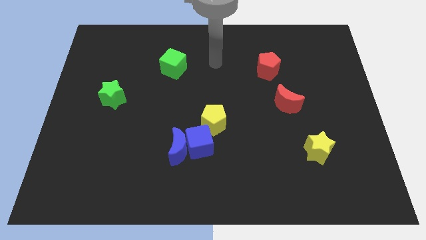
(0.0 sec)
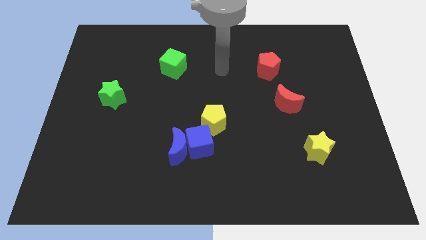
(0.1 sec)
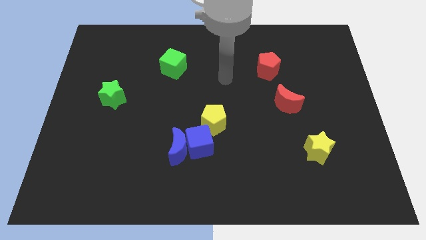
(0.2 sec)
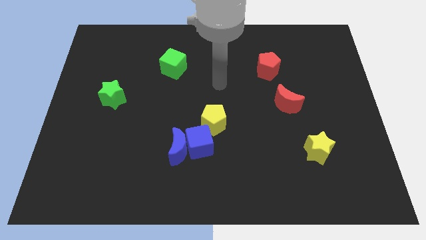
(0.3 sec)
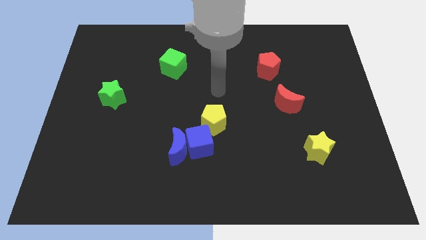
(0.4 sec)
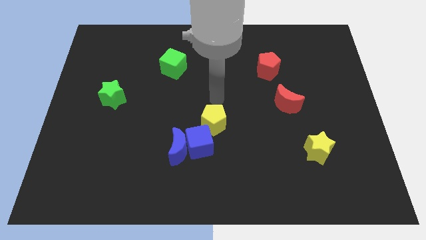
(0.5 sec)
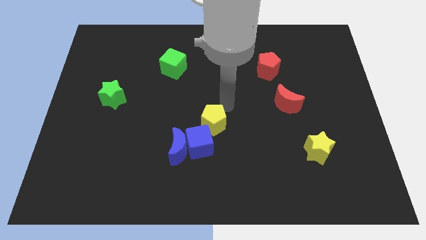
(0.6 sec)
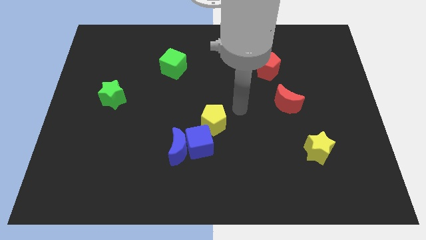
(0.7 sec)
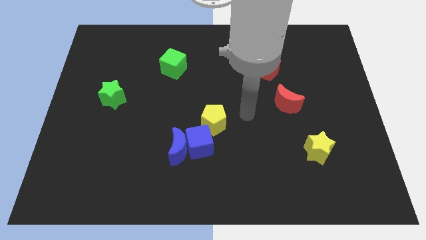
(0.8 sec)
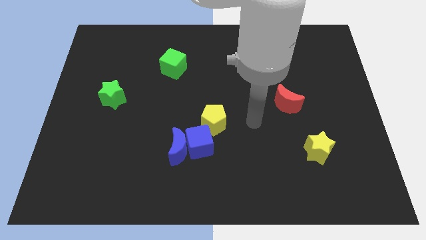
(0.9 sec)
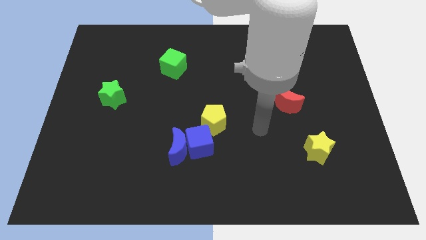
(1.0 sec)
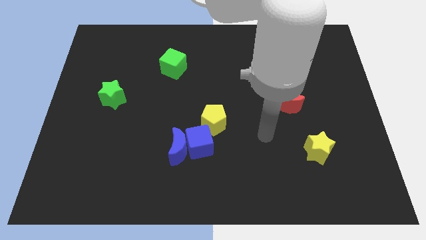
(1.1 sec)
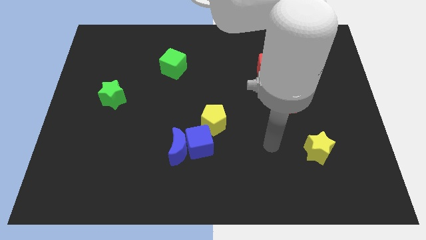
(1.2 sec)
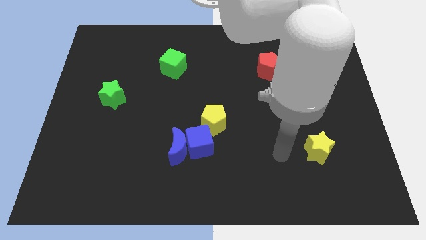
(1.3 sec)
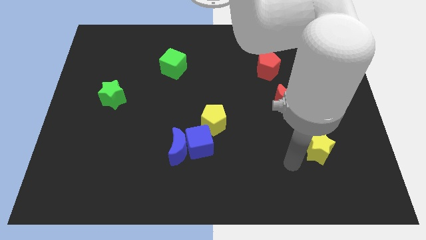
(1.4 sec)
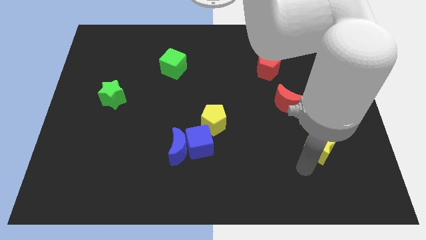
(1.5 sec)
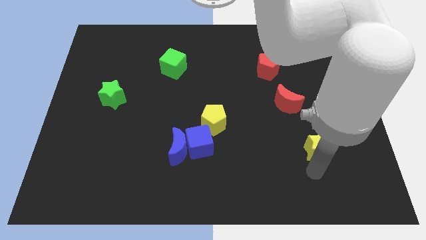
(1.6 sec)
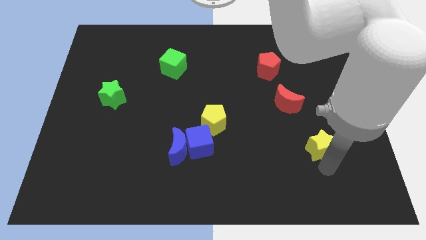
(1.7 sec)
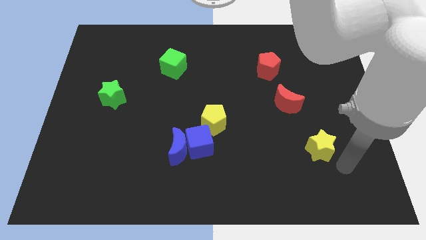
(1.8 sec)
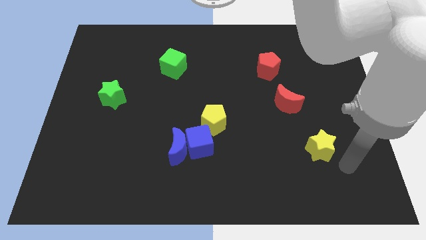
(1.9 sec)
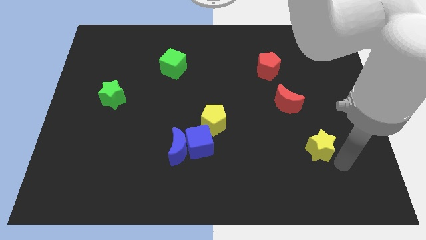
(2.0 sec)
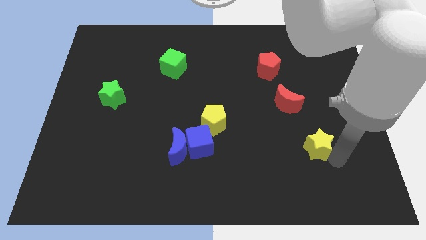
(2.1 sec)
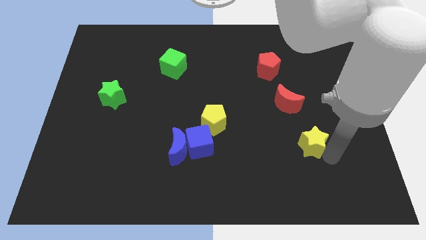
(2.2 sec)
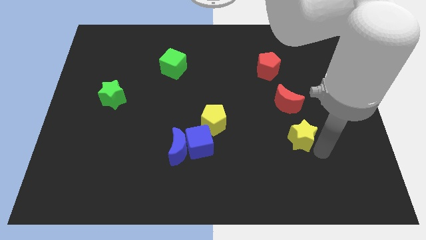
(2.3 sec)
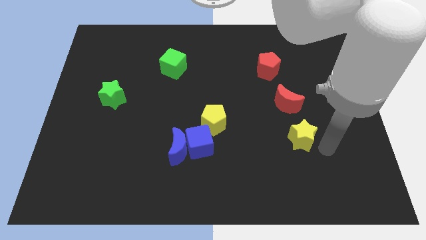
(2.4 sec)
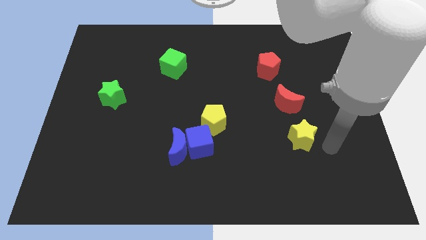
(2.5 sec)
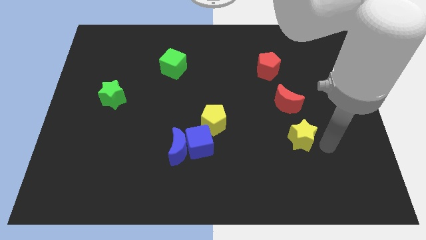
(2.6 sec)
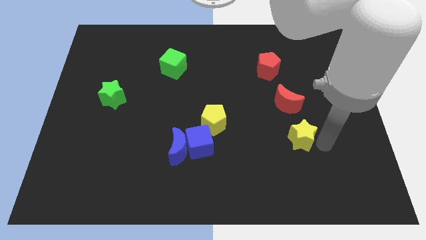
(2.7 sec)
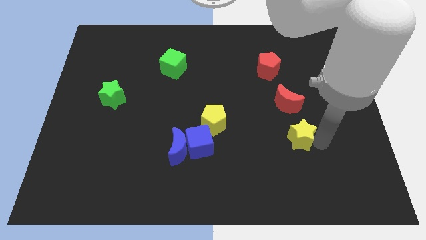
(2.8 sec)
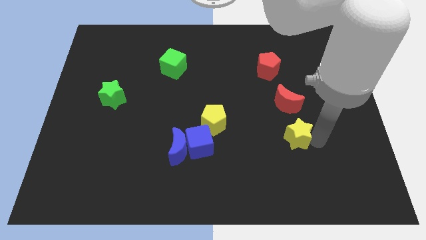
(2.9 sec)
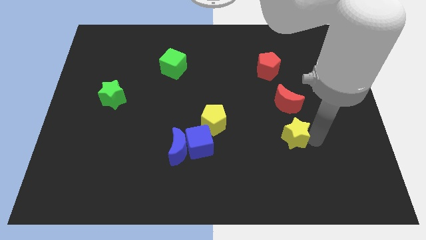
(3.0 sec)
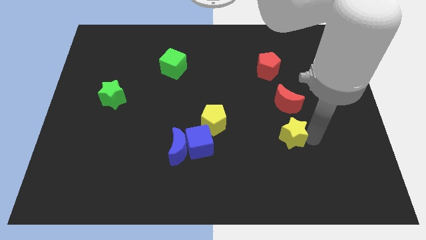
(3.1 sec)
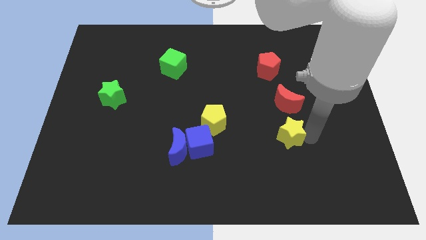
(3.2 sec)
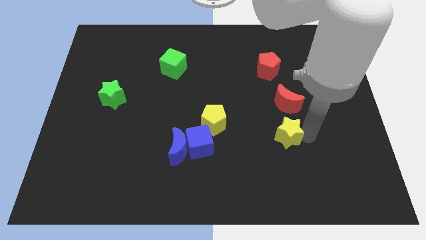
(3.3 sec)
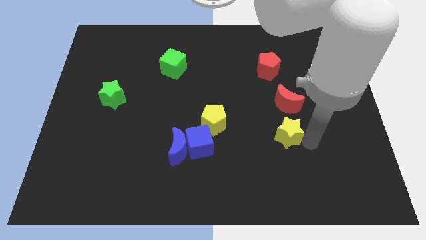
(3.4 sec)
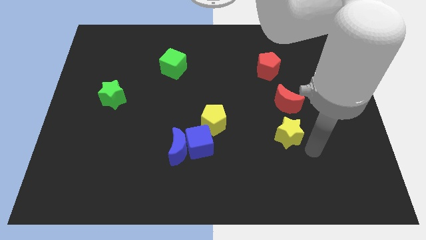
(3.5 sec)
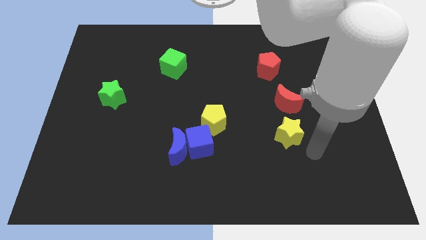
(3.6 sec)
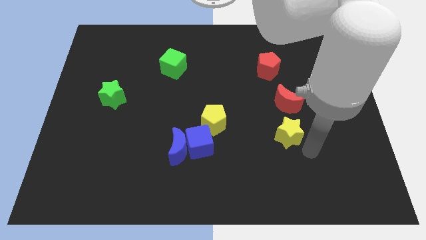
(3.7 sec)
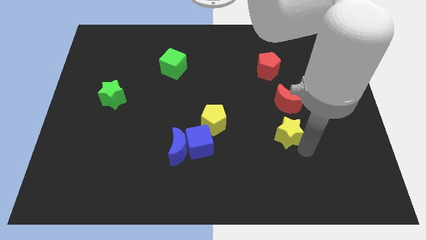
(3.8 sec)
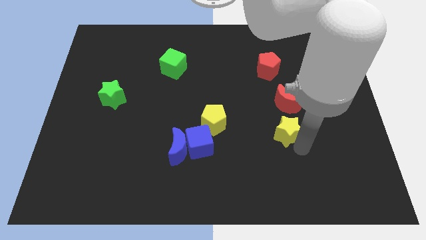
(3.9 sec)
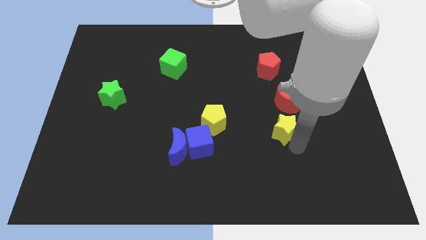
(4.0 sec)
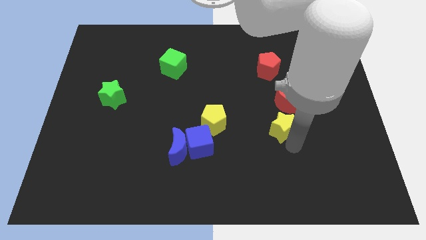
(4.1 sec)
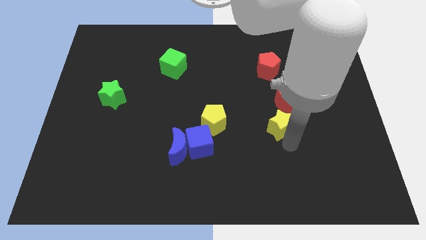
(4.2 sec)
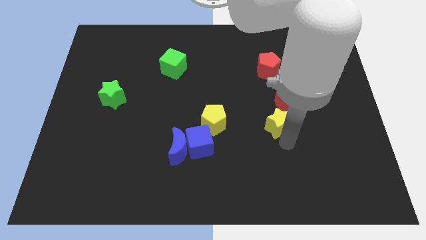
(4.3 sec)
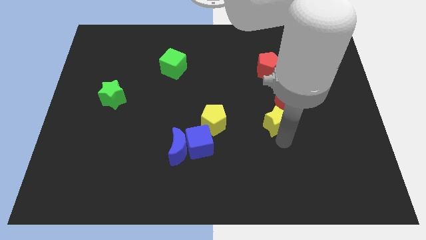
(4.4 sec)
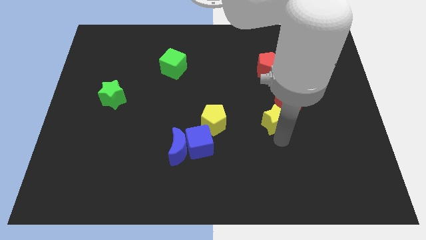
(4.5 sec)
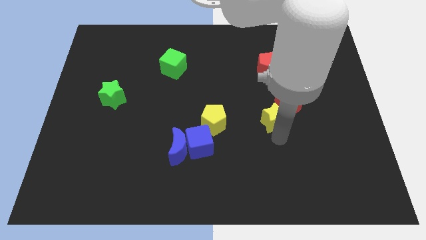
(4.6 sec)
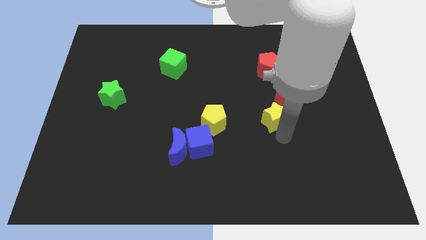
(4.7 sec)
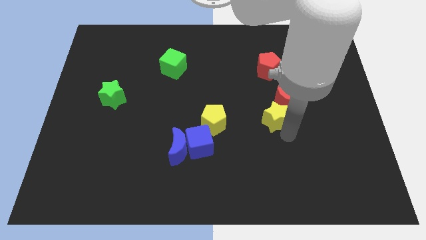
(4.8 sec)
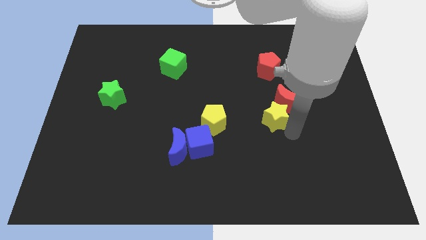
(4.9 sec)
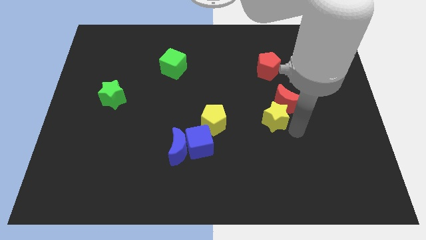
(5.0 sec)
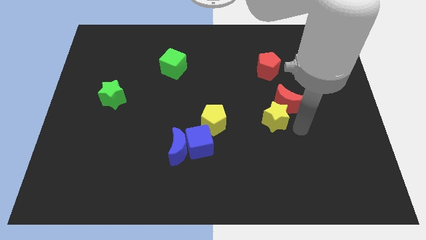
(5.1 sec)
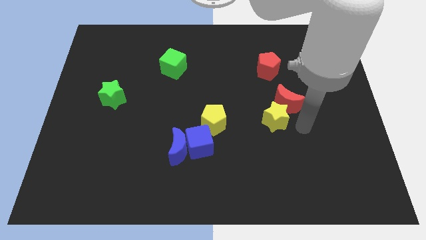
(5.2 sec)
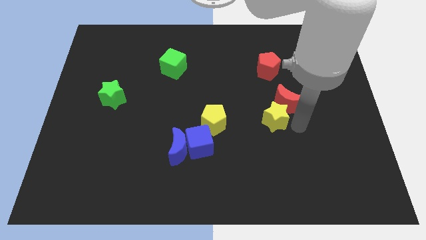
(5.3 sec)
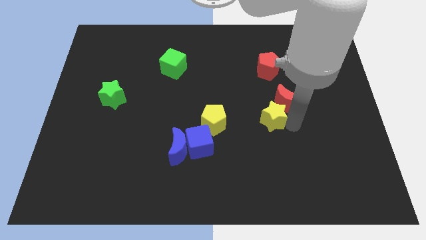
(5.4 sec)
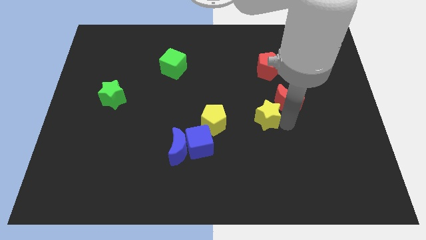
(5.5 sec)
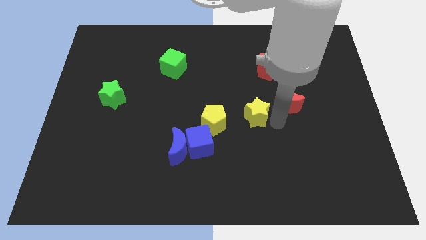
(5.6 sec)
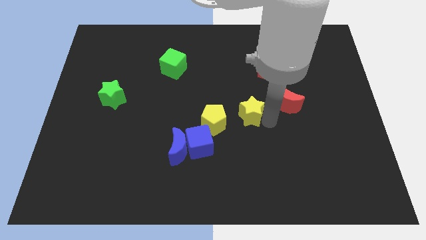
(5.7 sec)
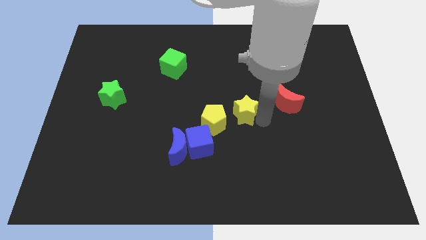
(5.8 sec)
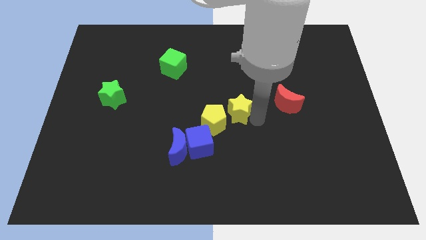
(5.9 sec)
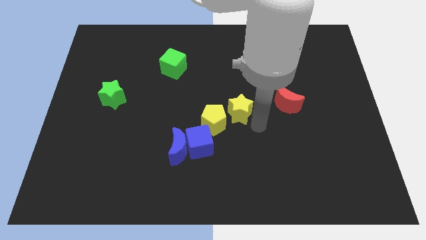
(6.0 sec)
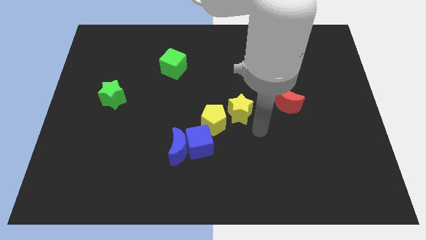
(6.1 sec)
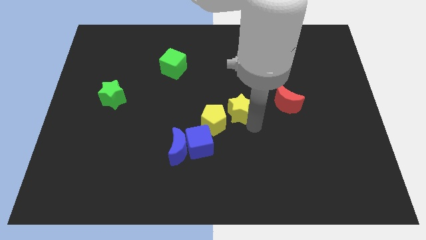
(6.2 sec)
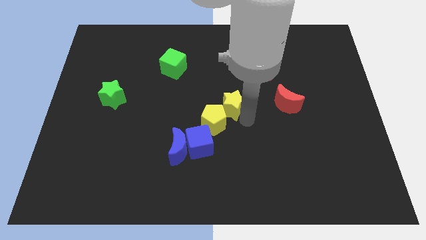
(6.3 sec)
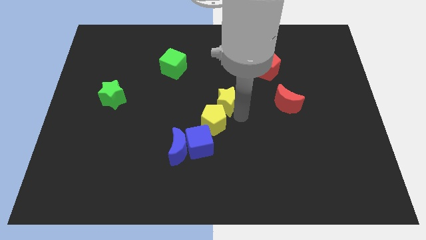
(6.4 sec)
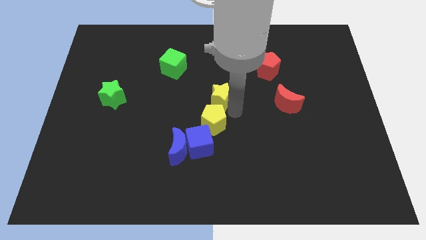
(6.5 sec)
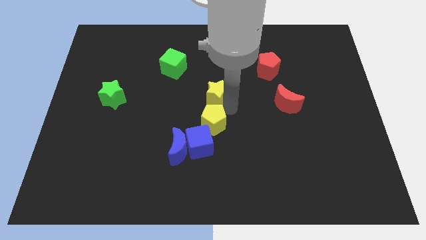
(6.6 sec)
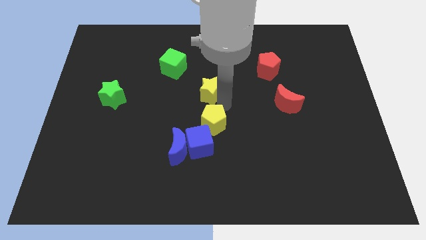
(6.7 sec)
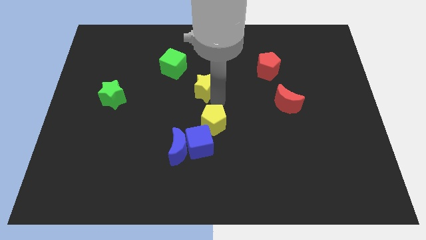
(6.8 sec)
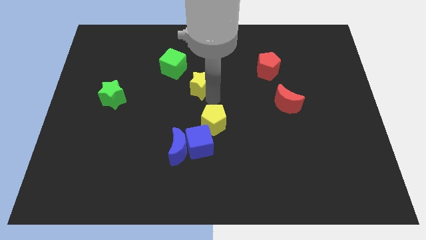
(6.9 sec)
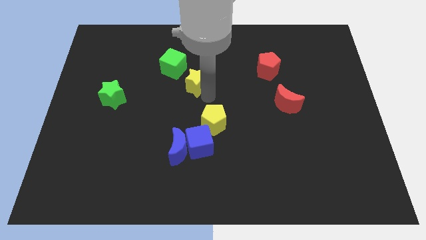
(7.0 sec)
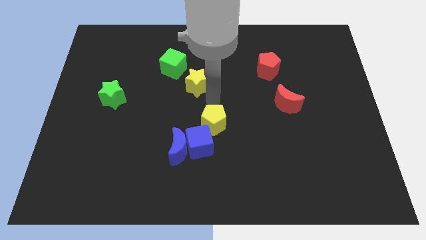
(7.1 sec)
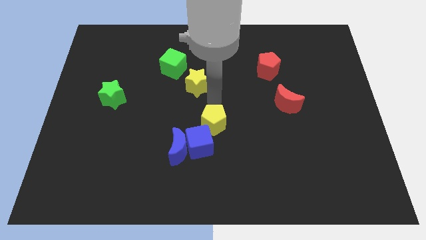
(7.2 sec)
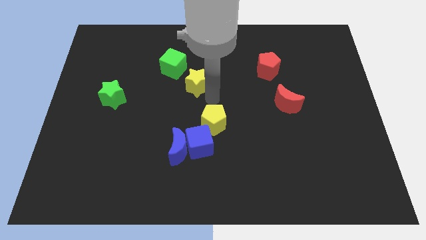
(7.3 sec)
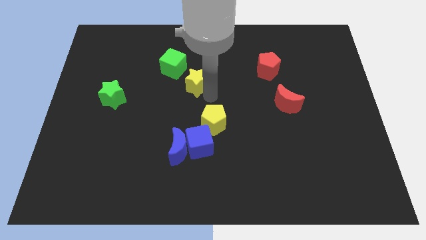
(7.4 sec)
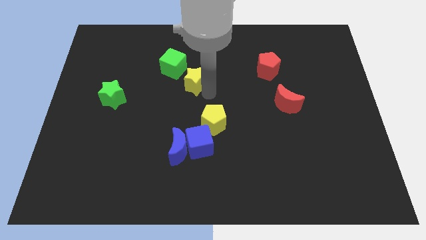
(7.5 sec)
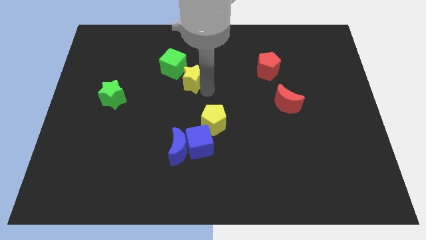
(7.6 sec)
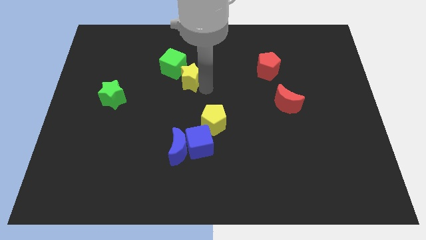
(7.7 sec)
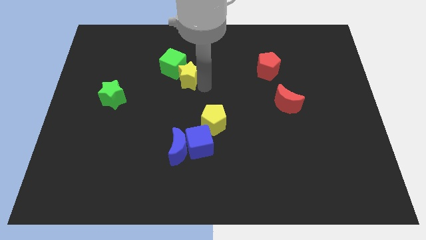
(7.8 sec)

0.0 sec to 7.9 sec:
move the yellow star towards the green cube
